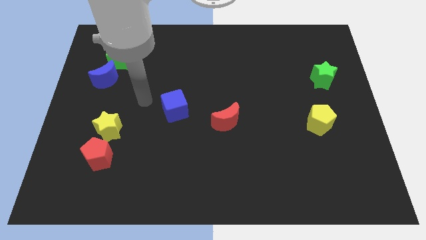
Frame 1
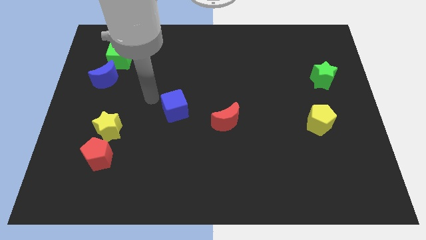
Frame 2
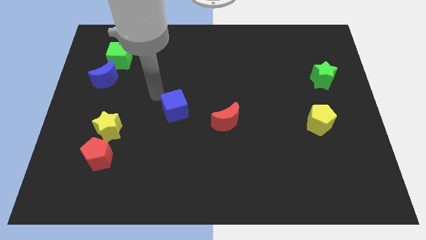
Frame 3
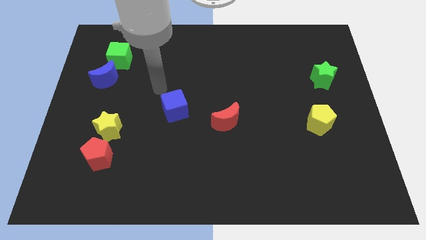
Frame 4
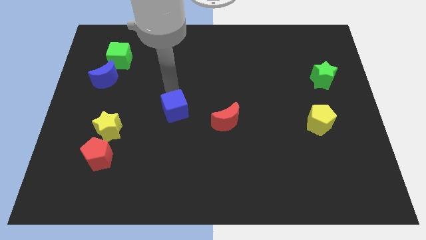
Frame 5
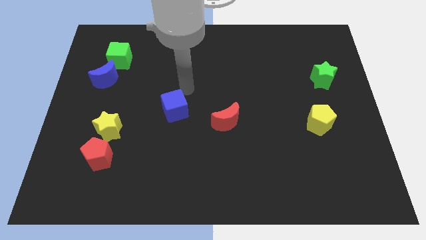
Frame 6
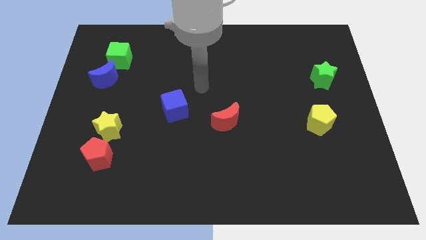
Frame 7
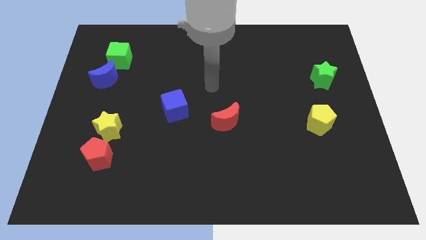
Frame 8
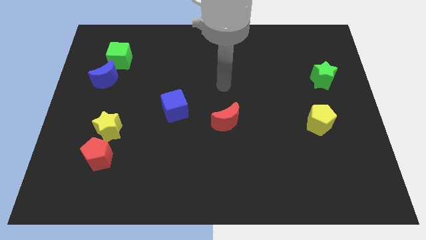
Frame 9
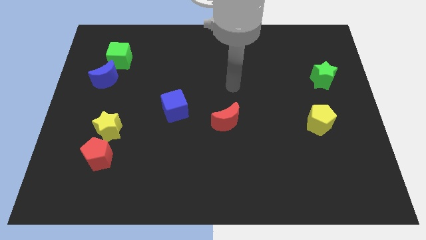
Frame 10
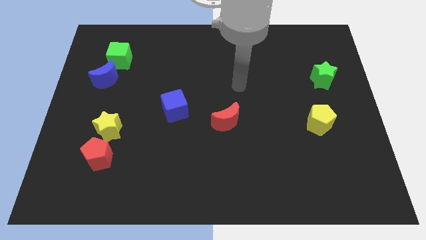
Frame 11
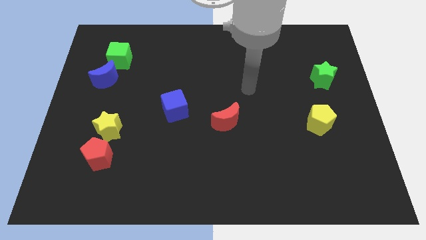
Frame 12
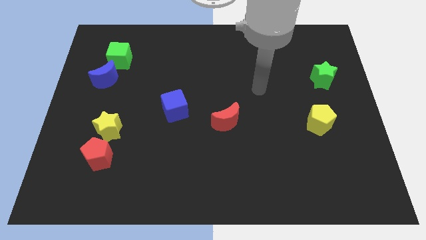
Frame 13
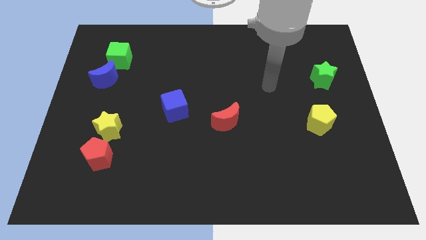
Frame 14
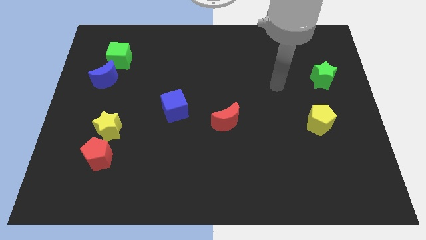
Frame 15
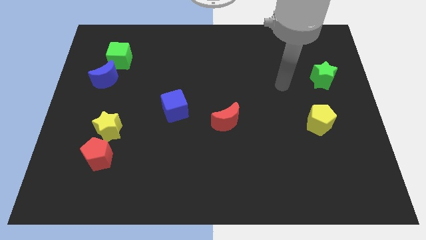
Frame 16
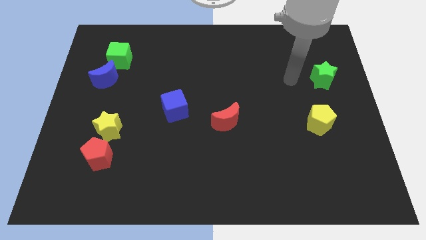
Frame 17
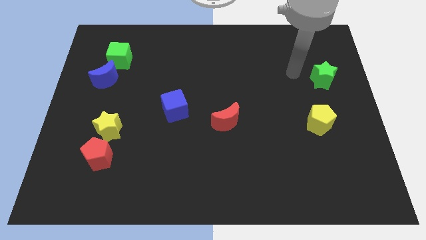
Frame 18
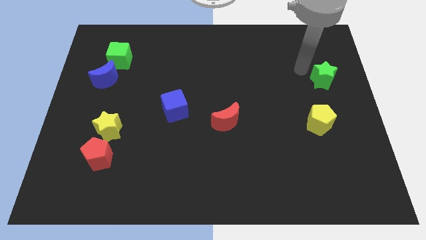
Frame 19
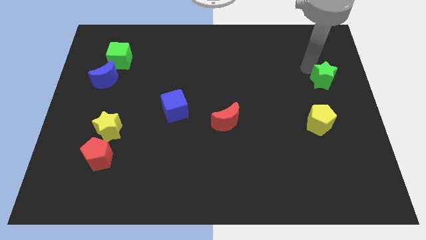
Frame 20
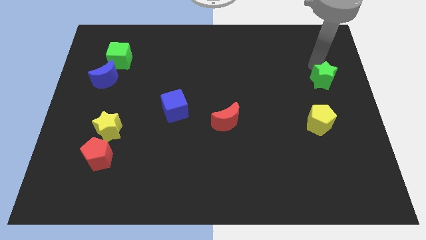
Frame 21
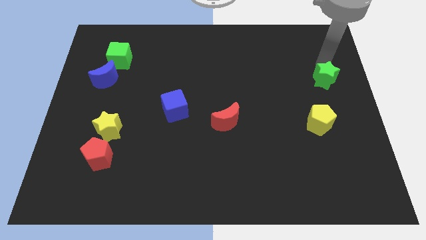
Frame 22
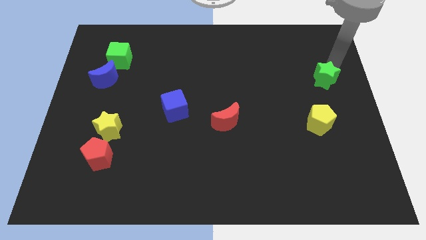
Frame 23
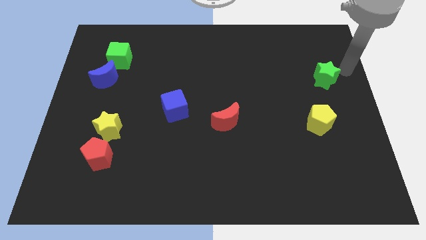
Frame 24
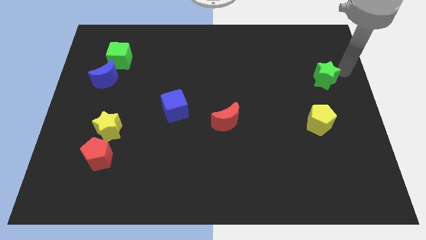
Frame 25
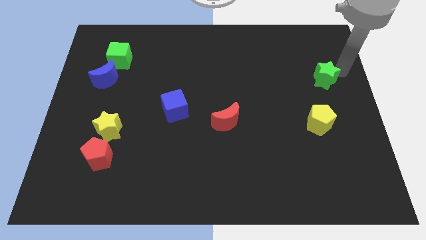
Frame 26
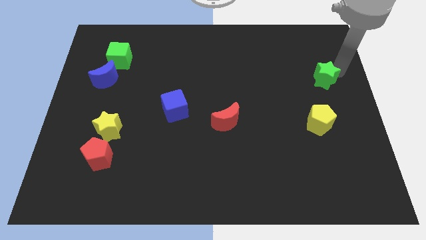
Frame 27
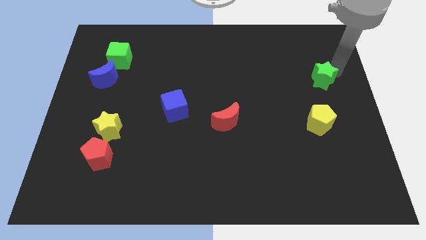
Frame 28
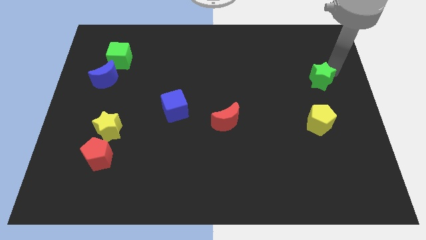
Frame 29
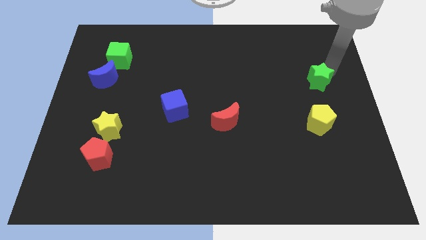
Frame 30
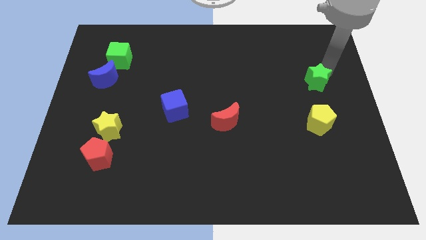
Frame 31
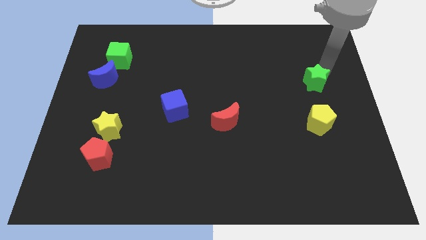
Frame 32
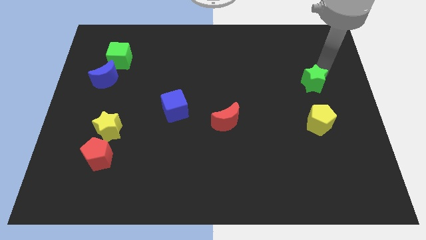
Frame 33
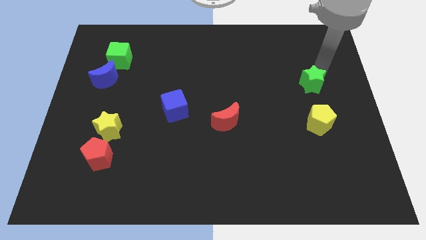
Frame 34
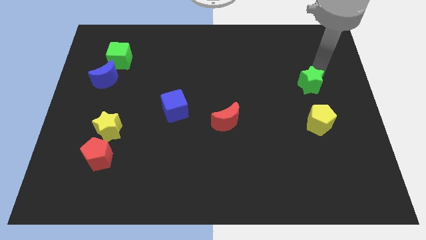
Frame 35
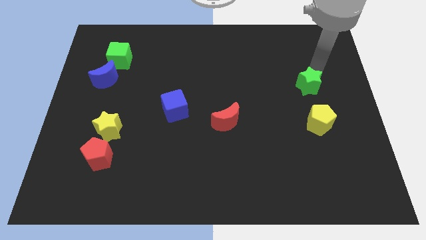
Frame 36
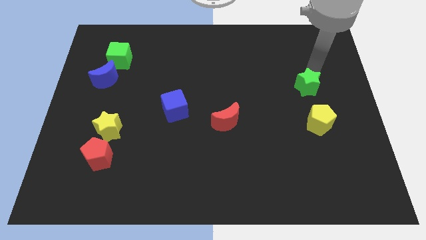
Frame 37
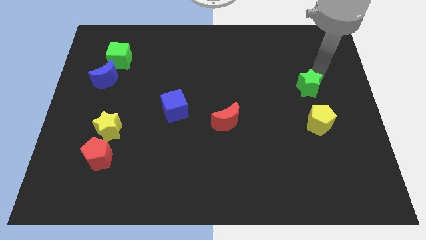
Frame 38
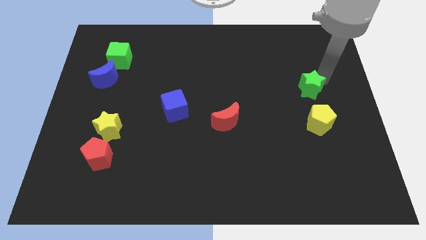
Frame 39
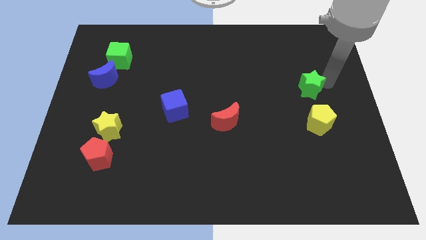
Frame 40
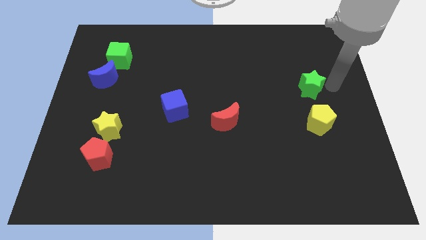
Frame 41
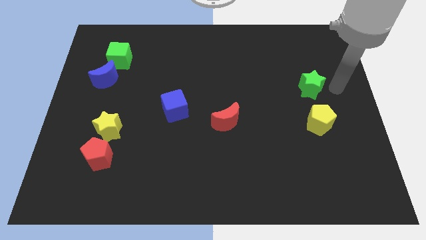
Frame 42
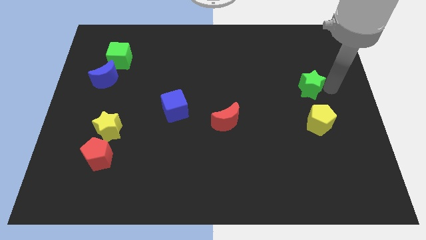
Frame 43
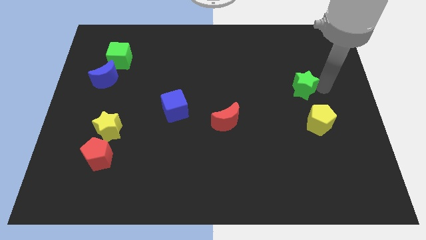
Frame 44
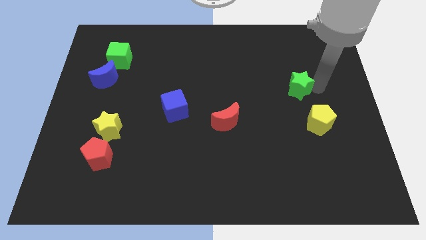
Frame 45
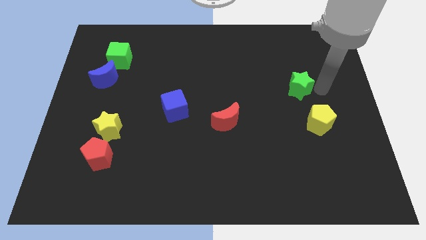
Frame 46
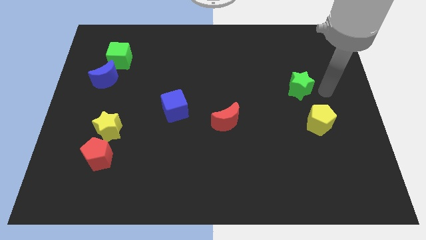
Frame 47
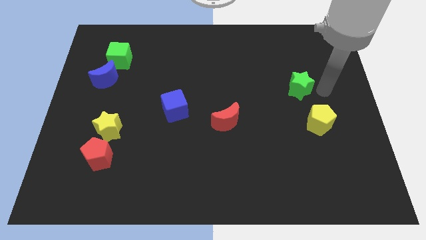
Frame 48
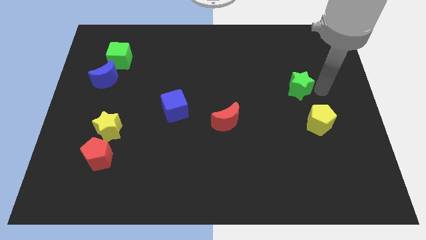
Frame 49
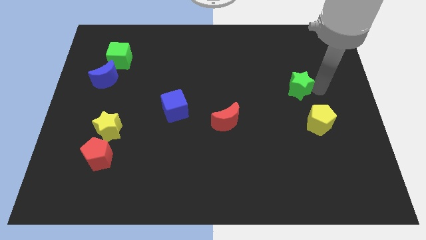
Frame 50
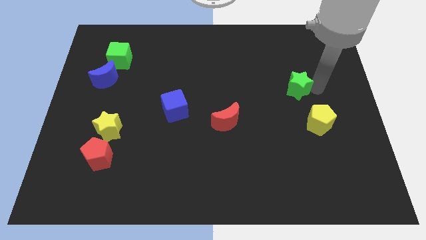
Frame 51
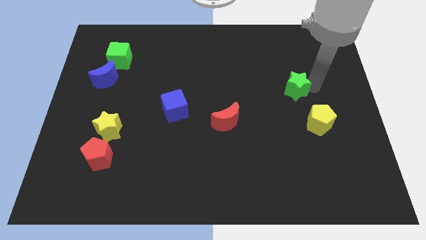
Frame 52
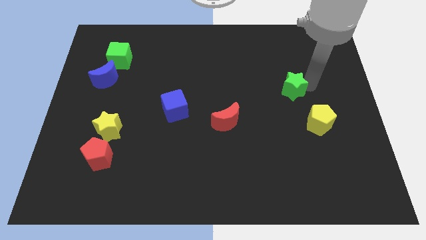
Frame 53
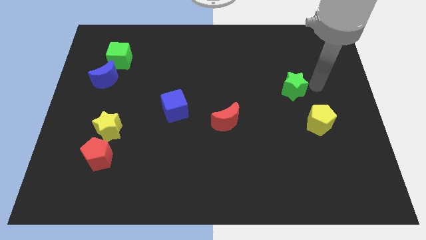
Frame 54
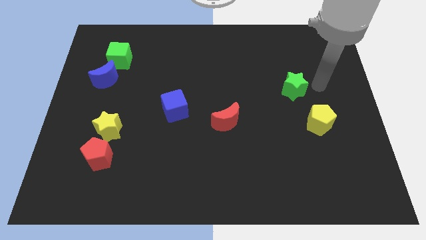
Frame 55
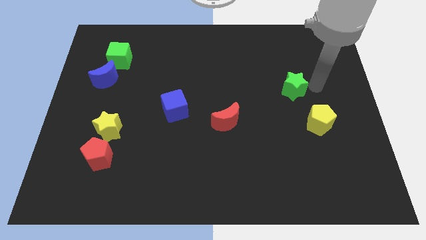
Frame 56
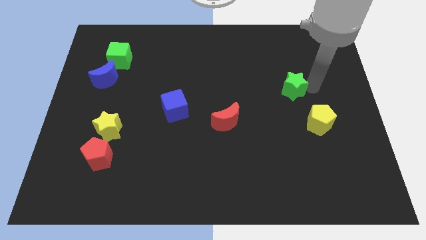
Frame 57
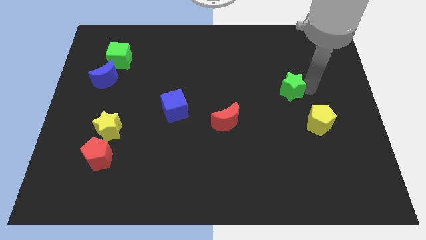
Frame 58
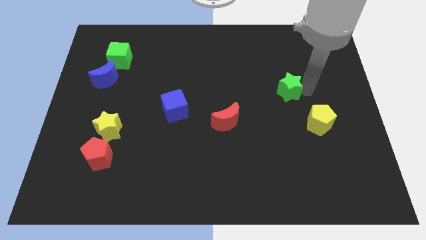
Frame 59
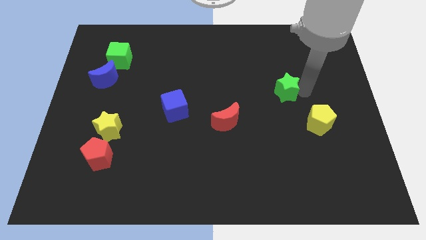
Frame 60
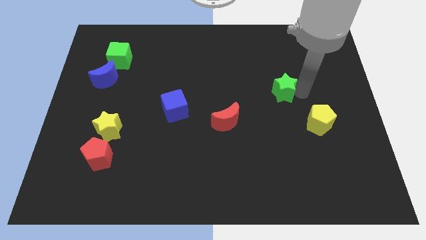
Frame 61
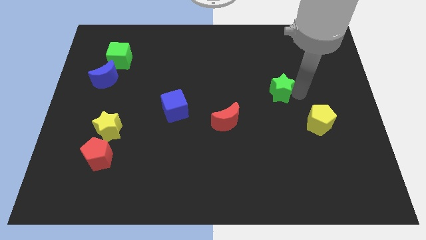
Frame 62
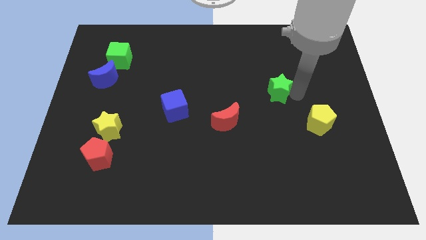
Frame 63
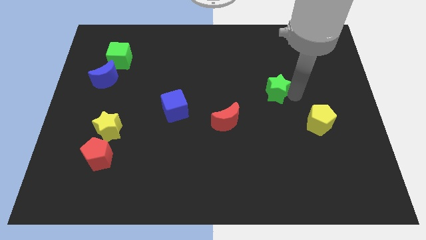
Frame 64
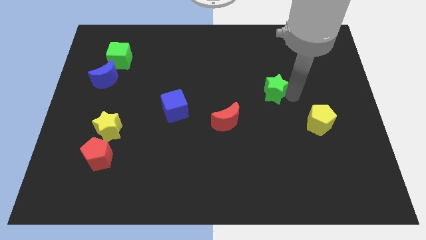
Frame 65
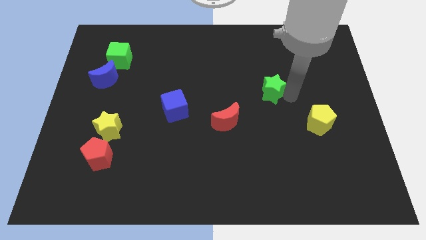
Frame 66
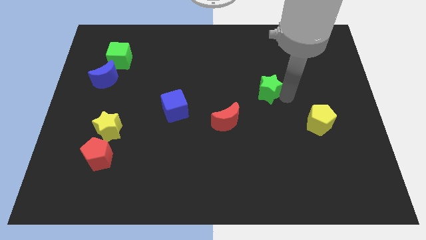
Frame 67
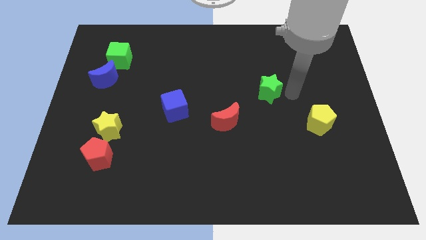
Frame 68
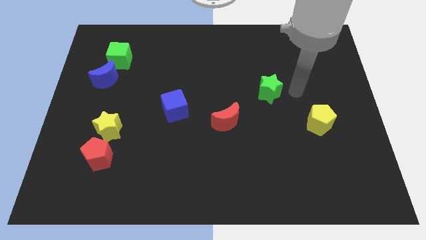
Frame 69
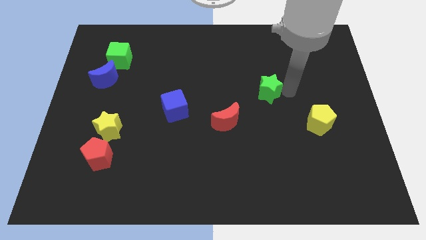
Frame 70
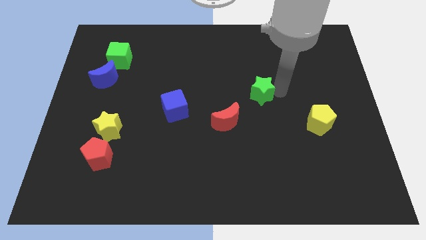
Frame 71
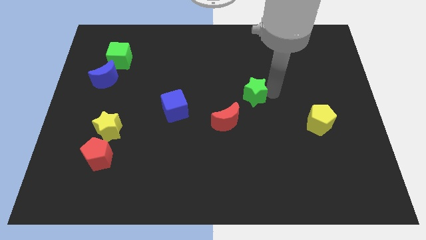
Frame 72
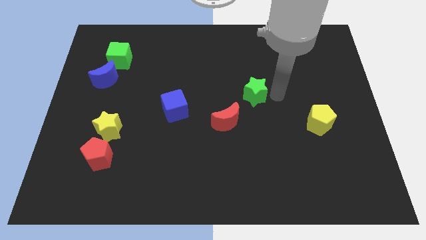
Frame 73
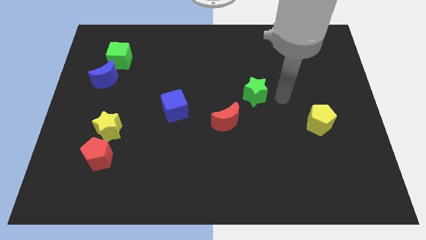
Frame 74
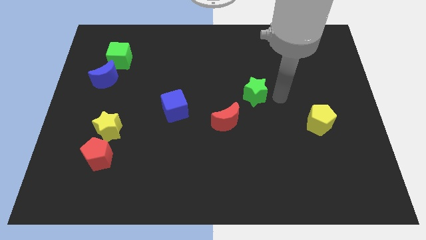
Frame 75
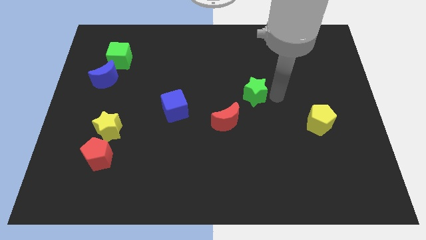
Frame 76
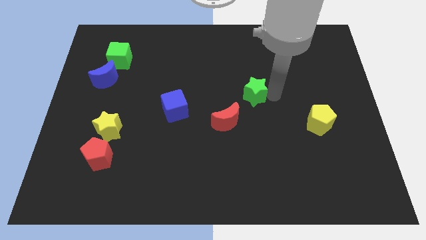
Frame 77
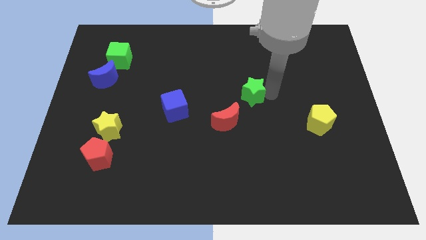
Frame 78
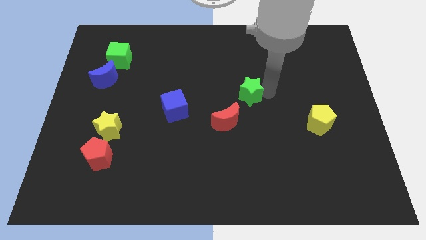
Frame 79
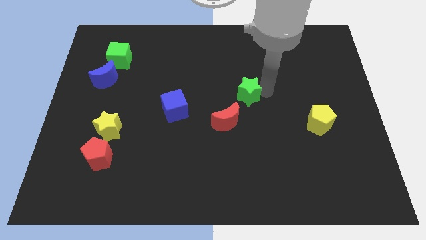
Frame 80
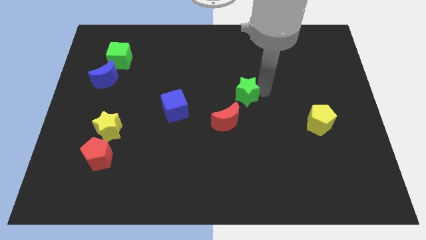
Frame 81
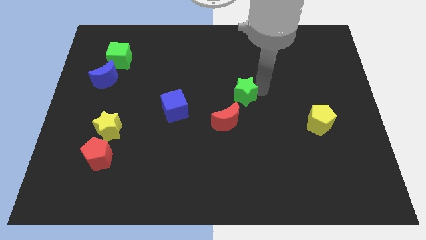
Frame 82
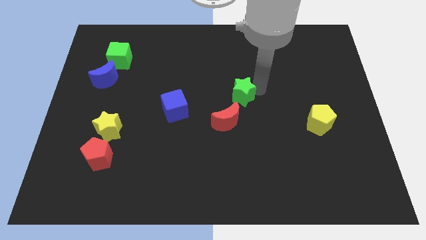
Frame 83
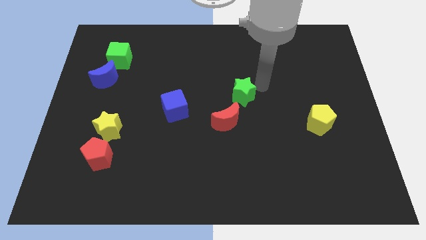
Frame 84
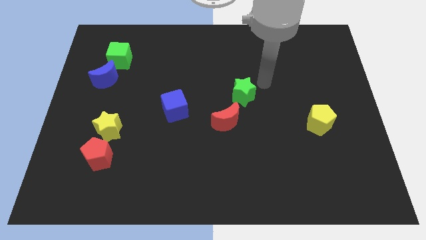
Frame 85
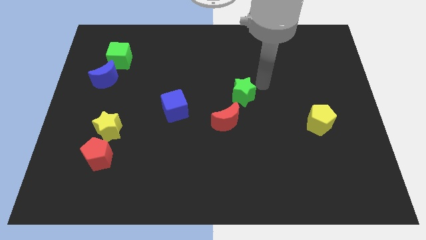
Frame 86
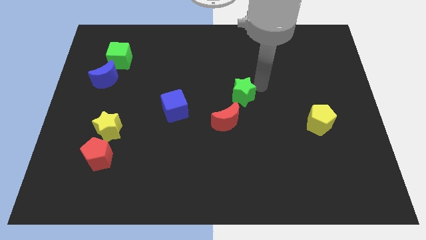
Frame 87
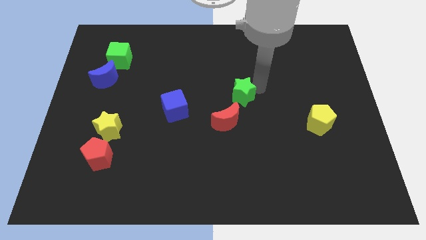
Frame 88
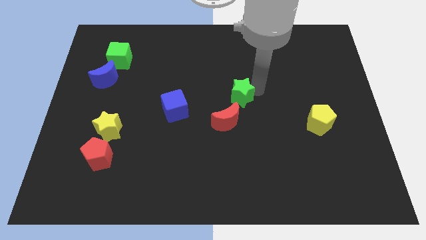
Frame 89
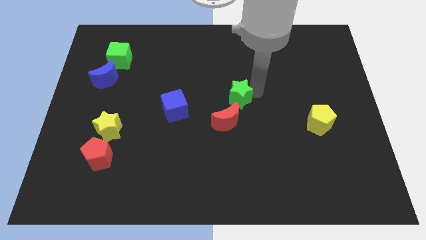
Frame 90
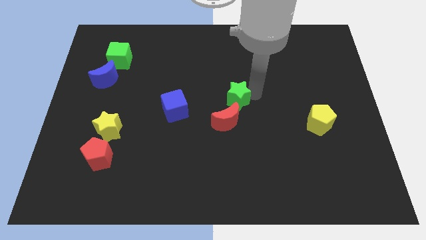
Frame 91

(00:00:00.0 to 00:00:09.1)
put the green star to the right of the blue cube
